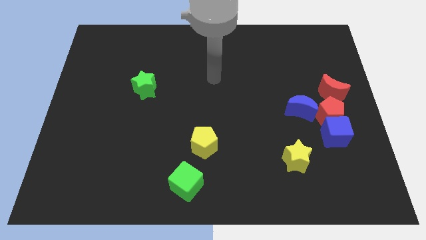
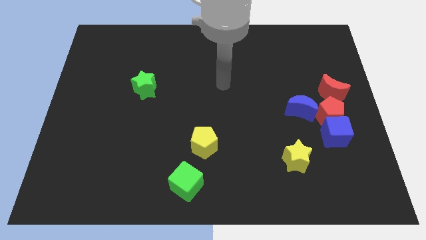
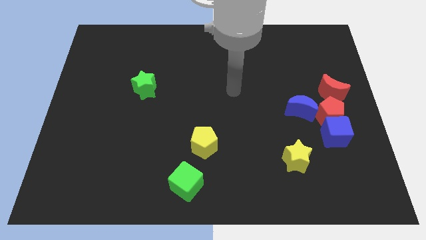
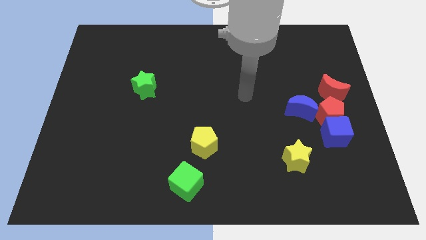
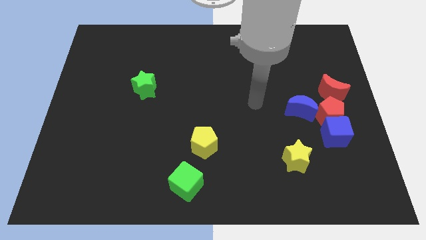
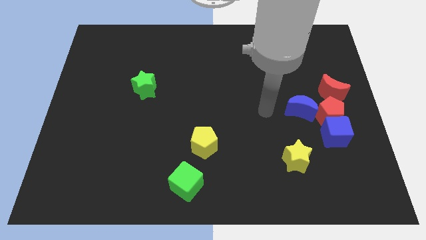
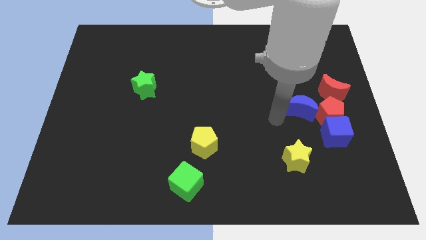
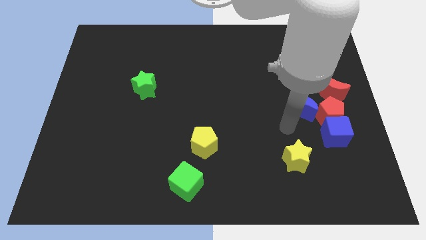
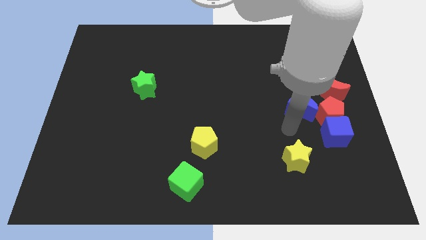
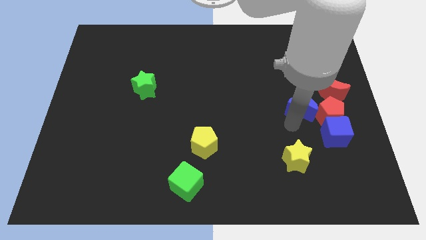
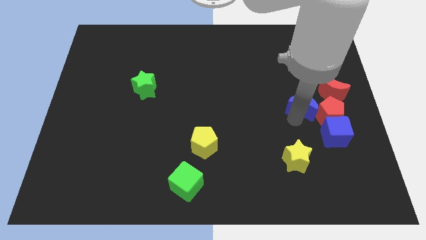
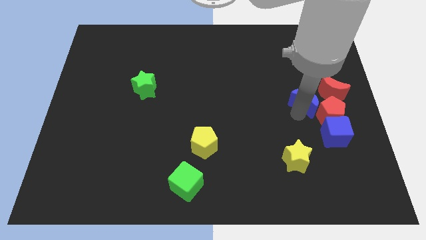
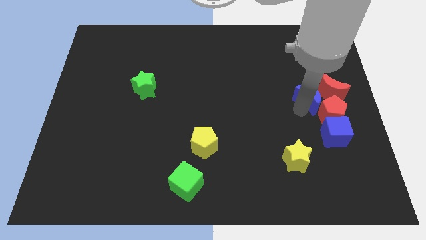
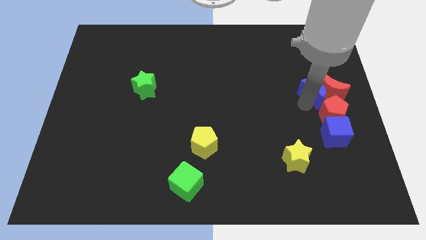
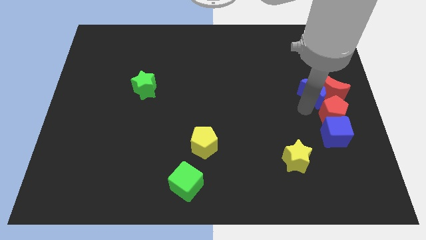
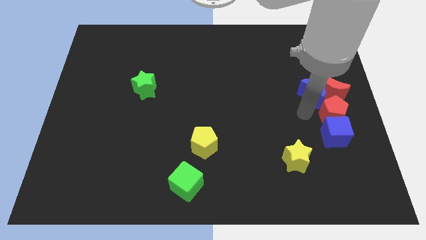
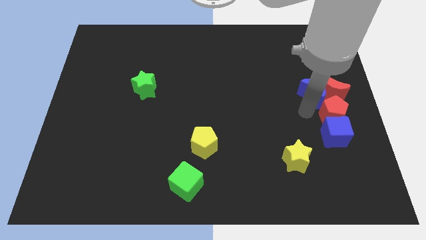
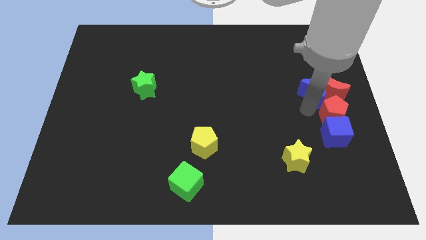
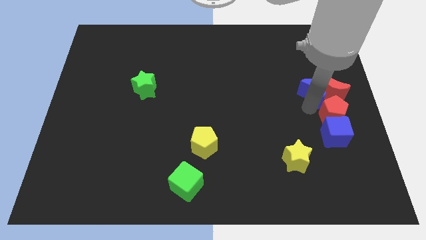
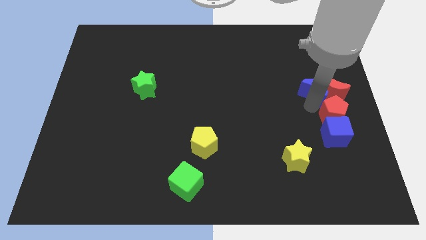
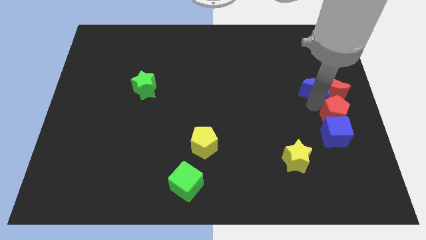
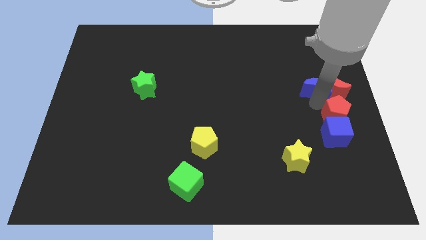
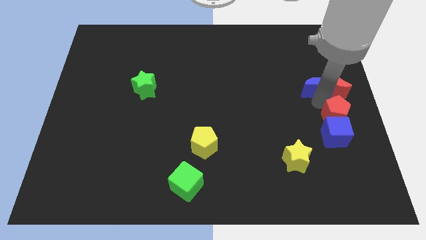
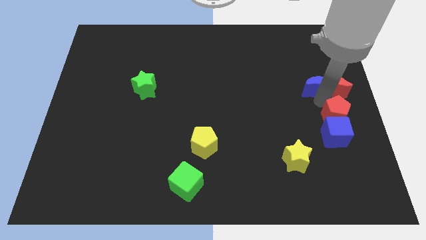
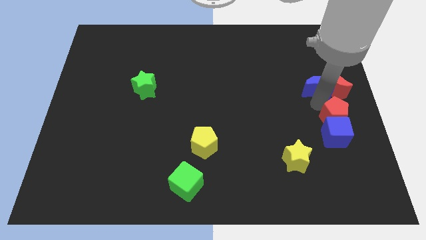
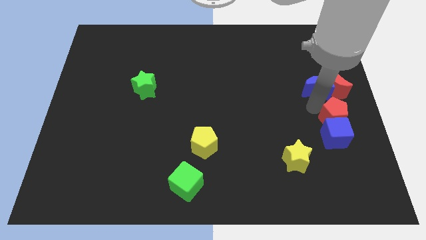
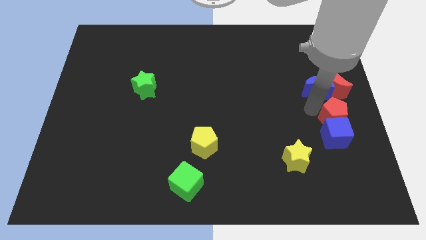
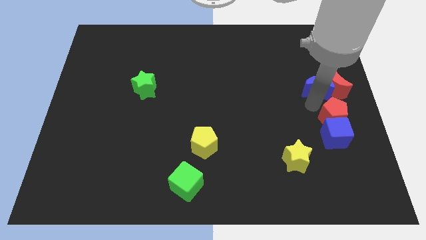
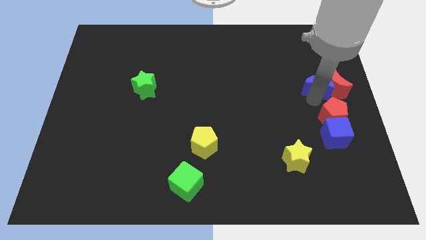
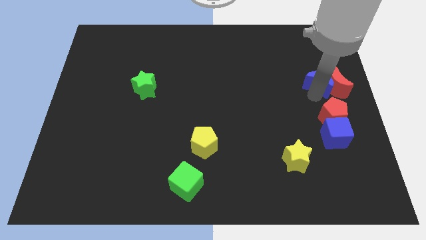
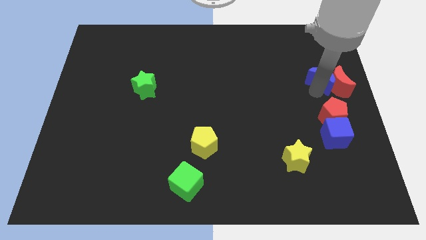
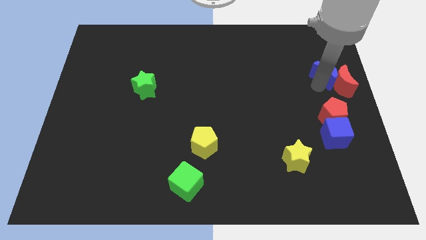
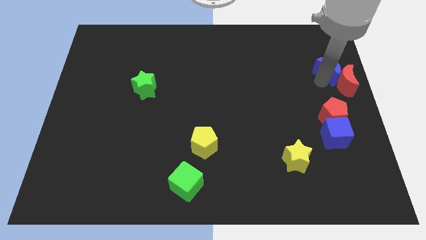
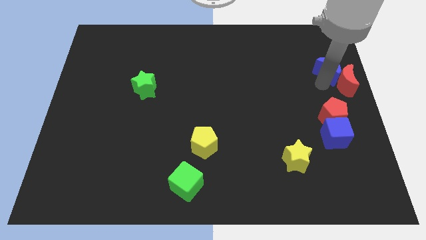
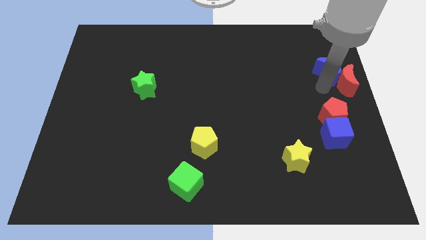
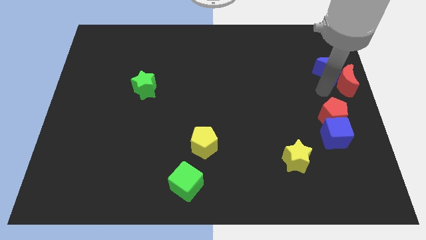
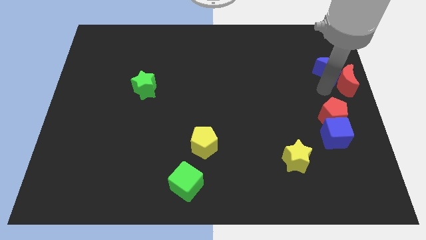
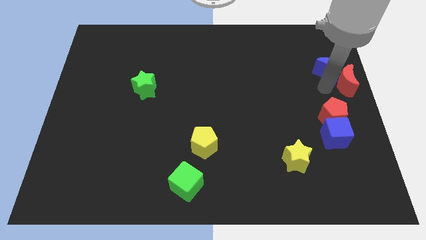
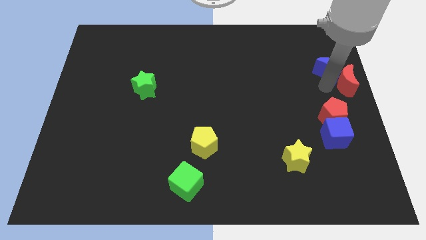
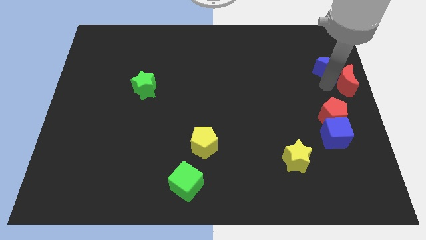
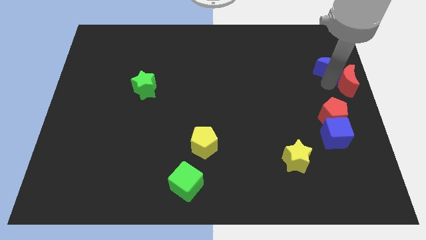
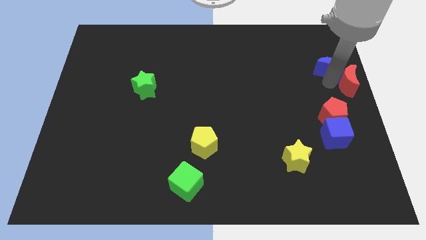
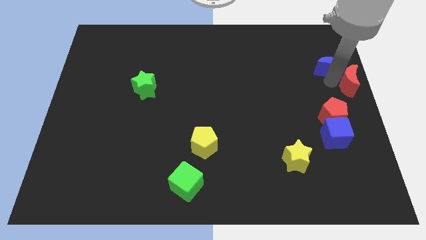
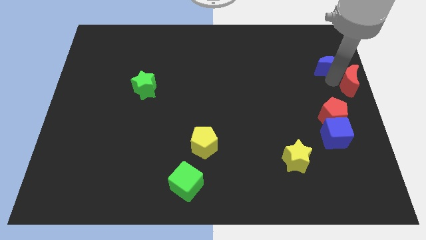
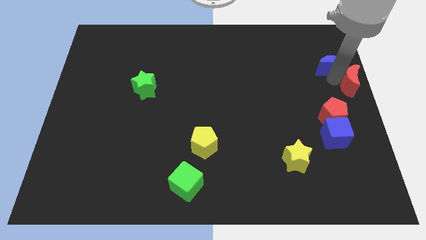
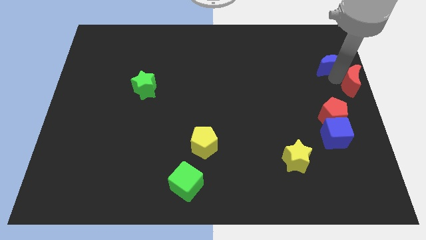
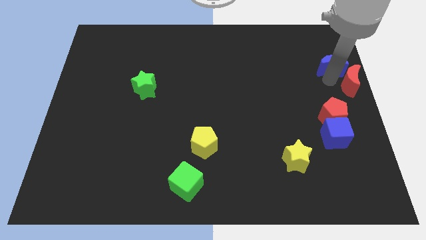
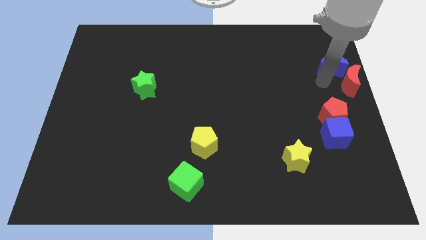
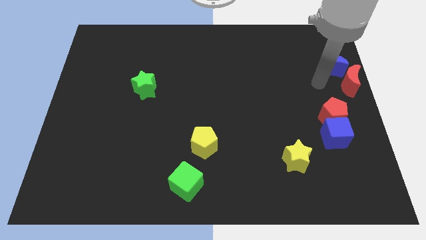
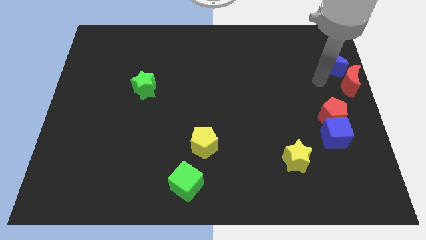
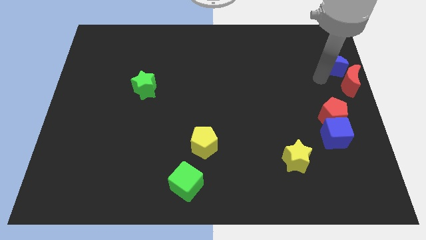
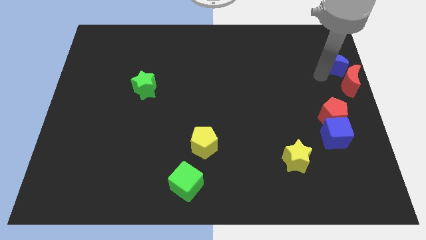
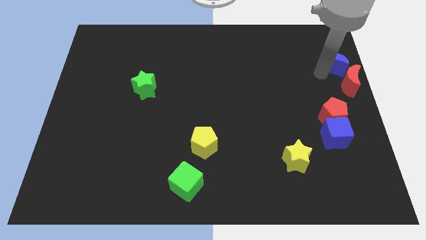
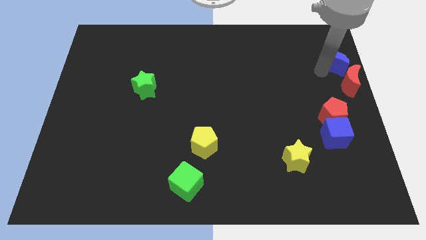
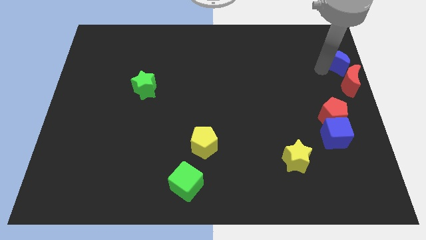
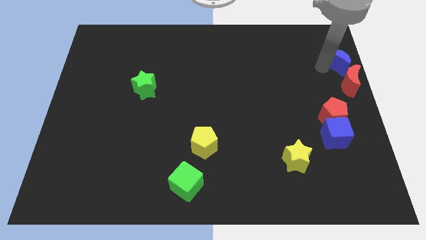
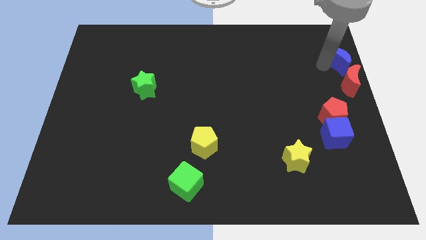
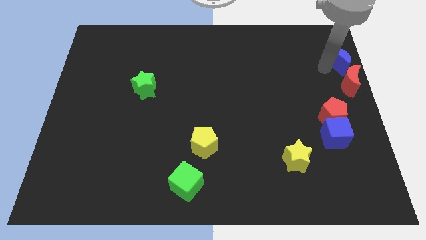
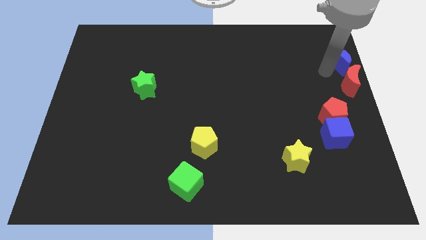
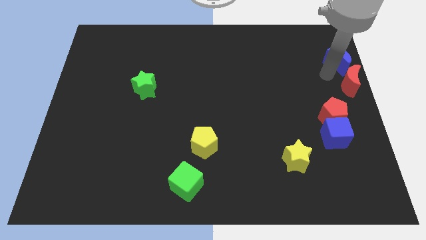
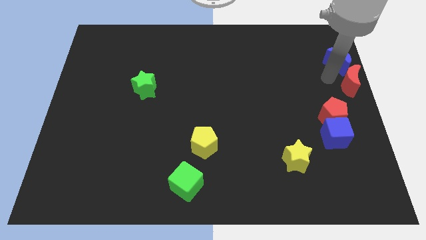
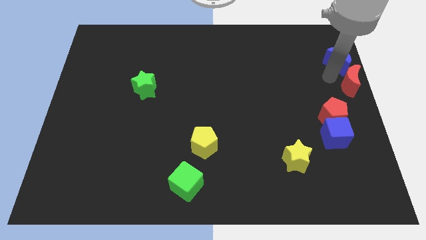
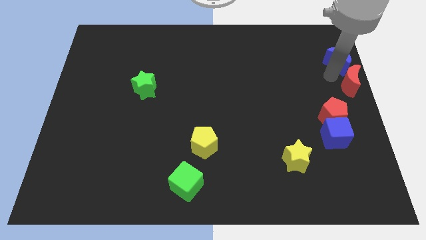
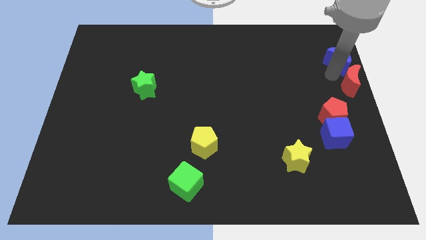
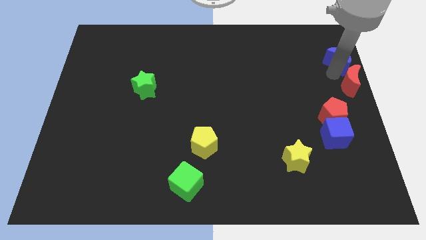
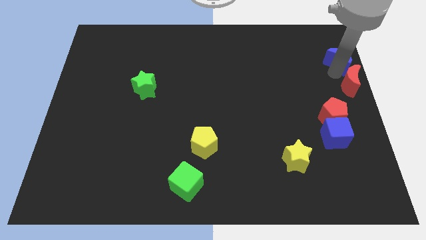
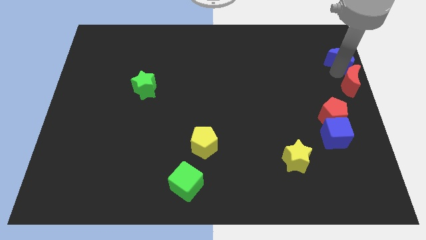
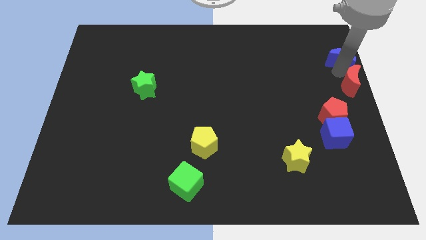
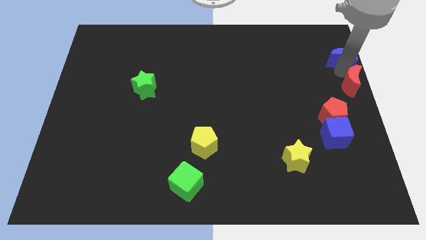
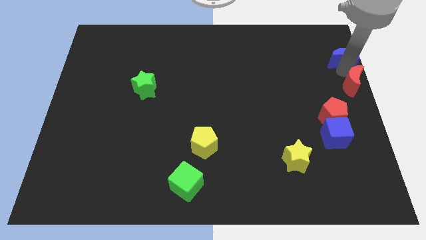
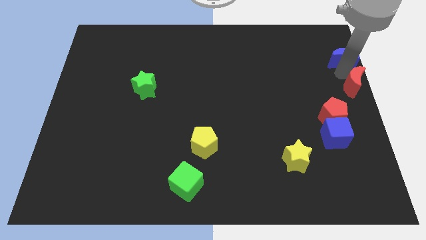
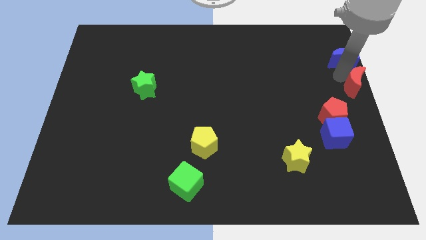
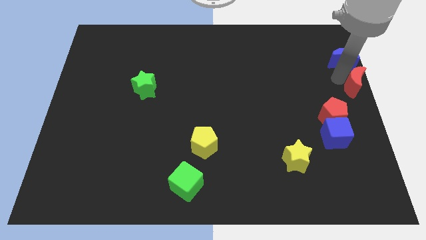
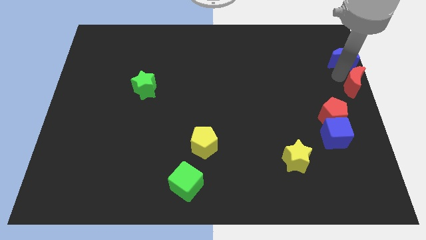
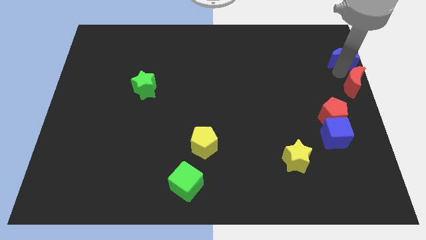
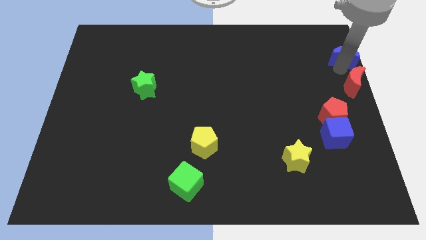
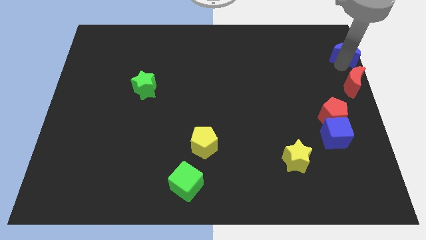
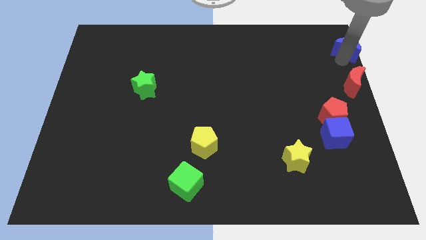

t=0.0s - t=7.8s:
move the blue moon to the upper right corner
